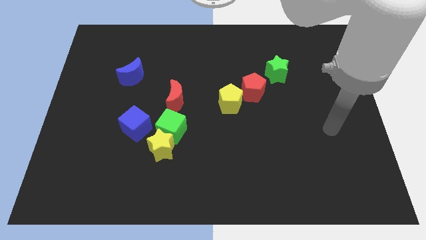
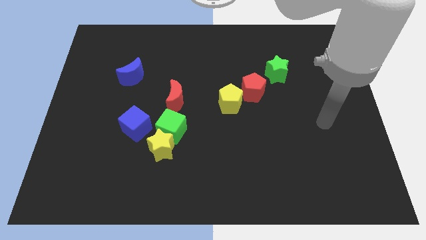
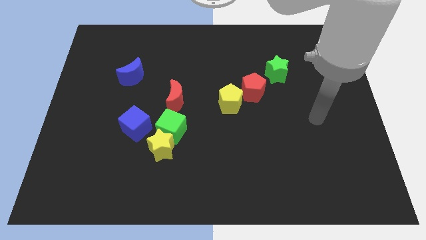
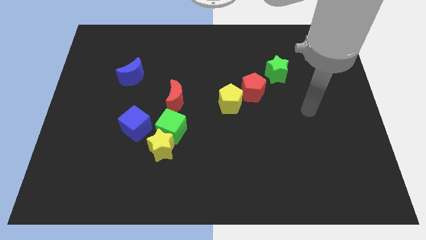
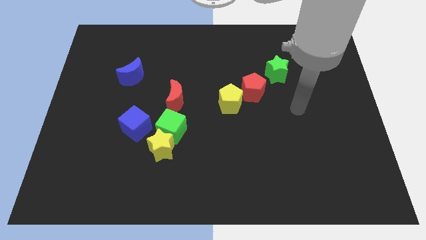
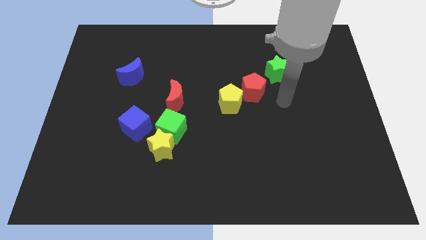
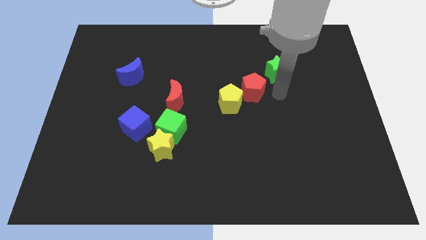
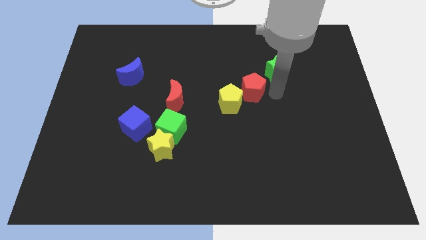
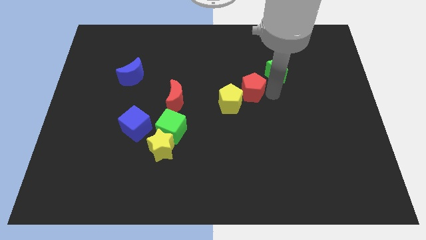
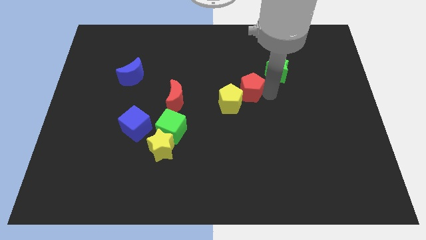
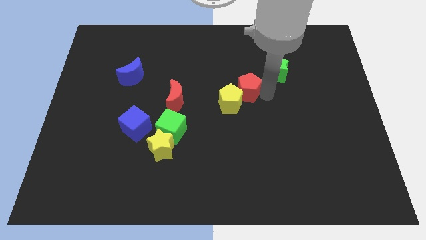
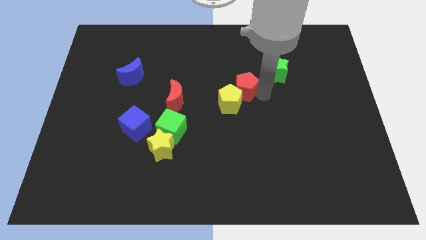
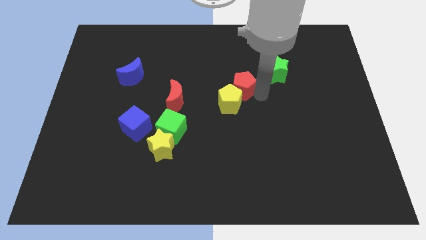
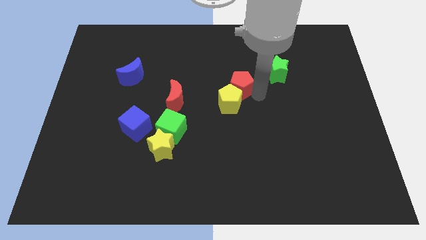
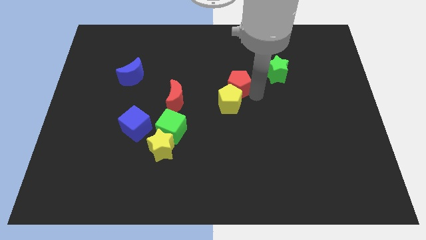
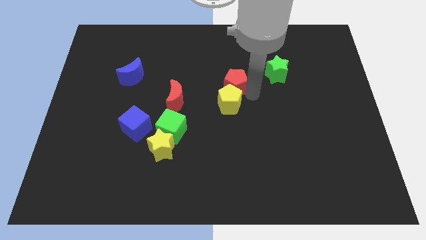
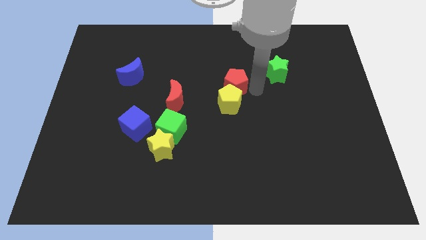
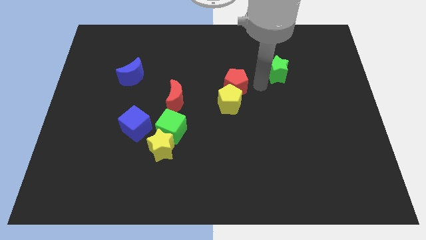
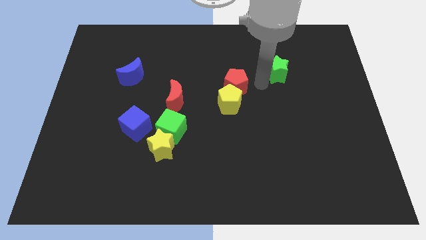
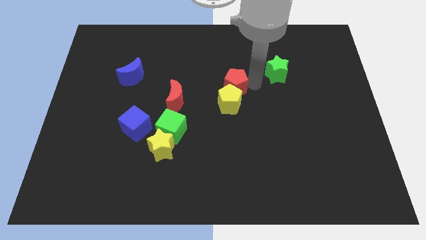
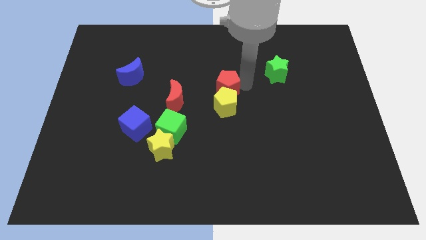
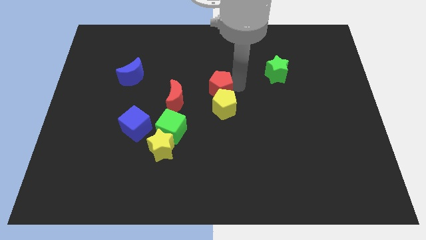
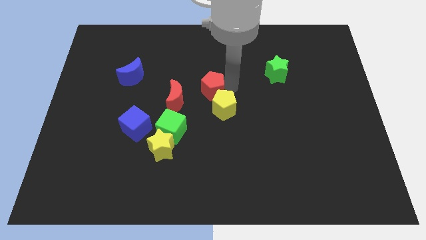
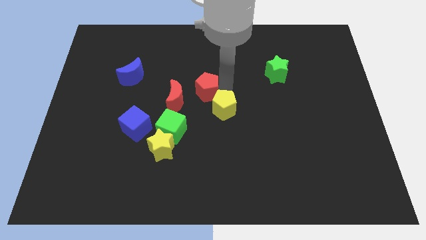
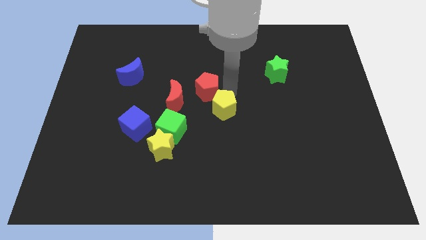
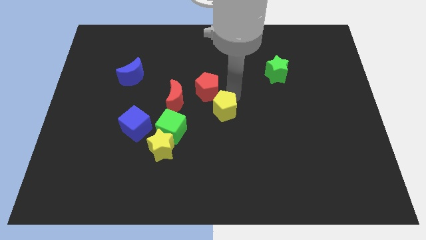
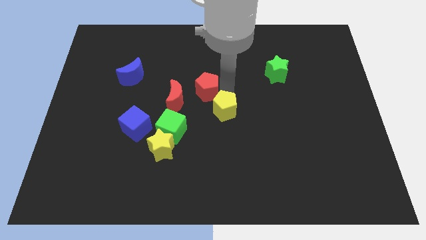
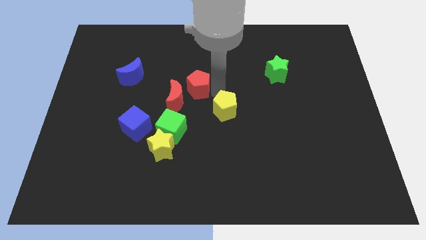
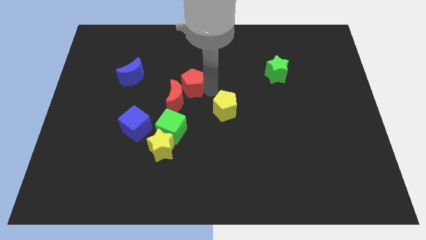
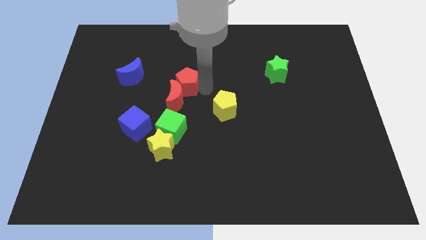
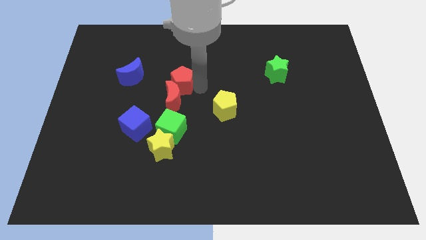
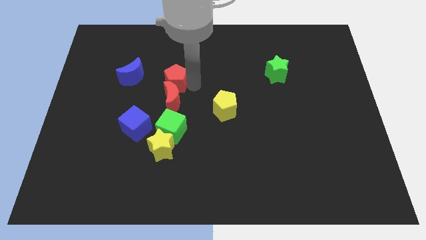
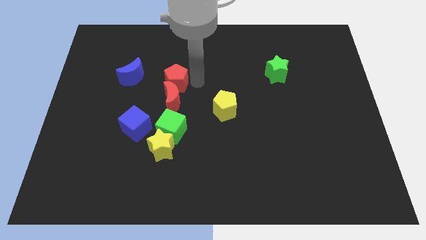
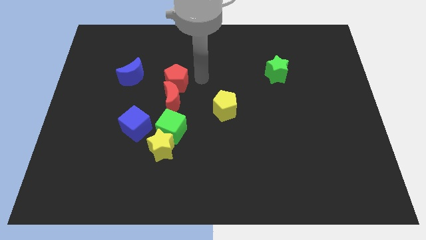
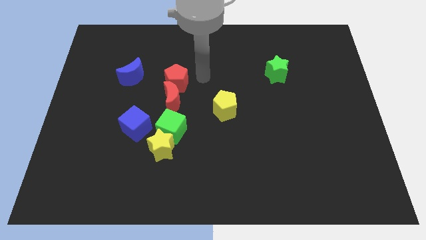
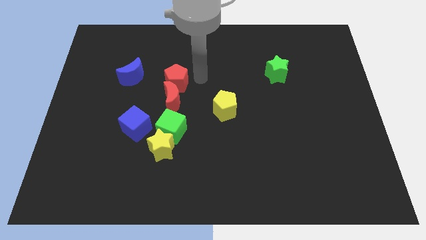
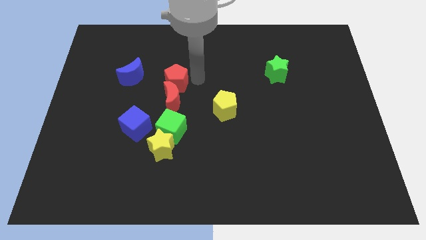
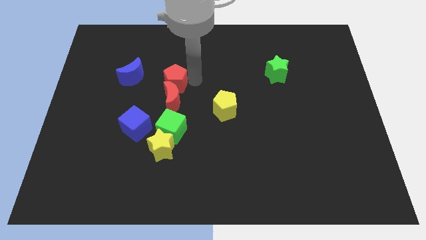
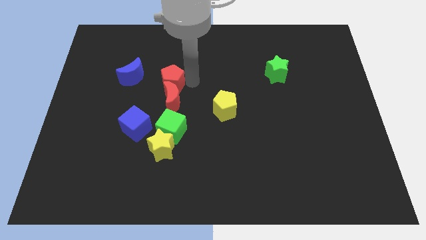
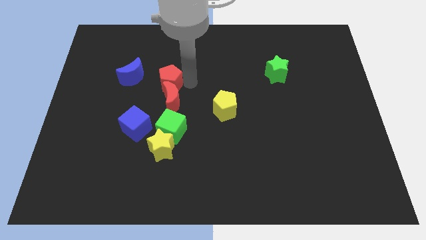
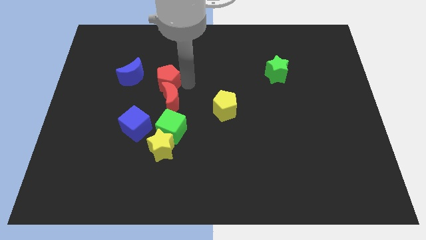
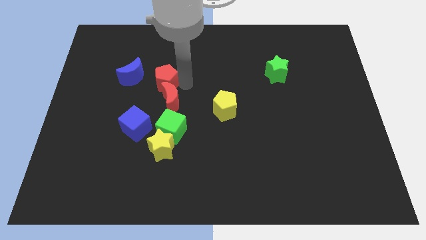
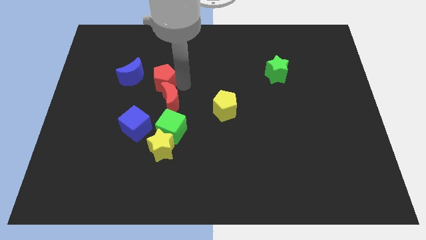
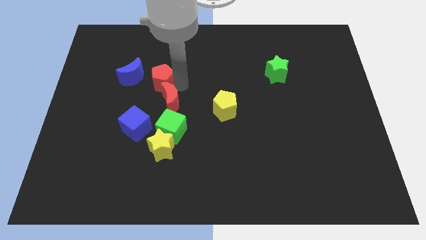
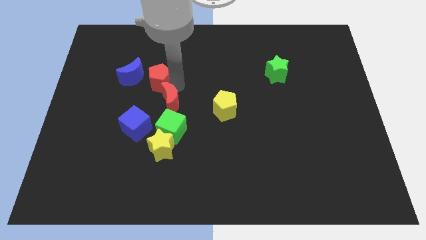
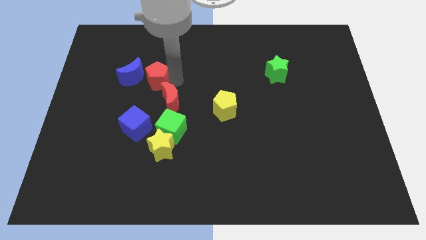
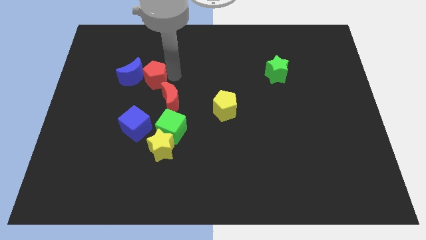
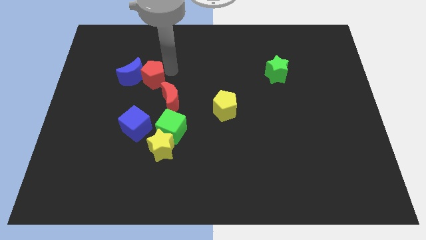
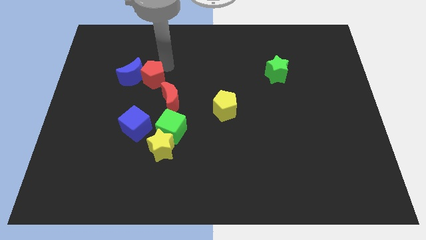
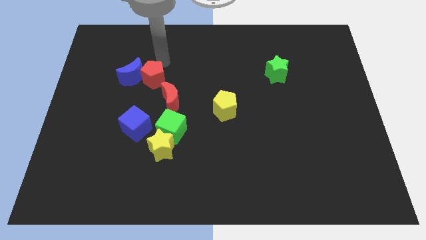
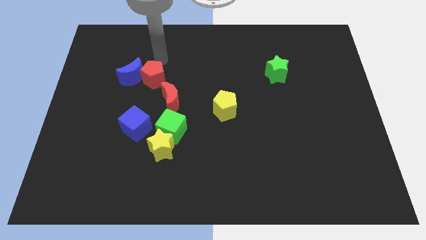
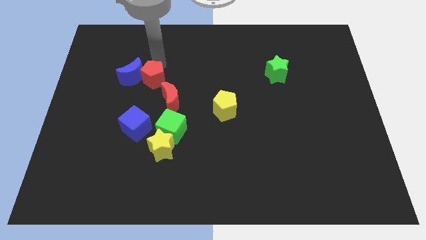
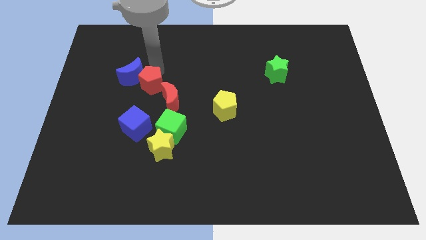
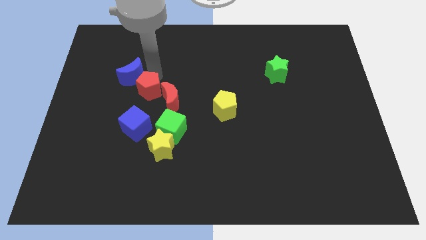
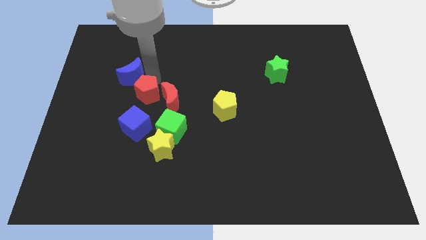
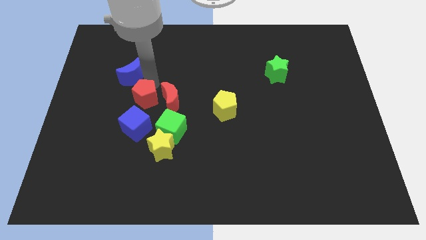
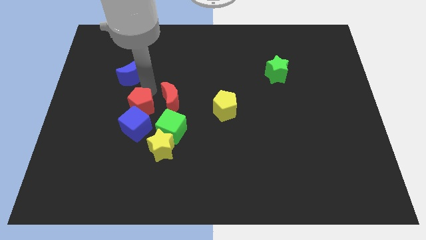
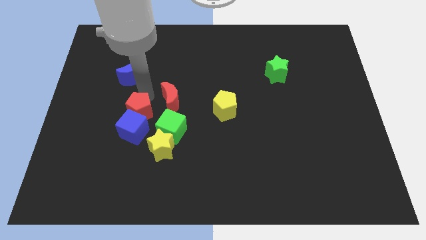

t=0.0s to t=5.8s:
slide the red pentagon close to the blue cube

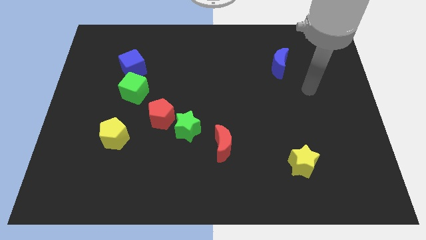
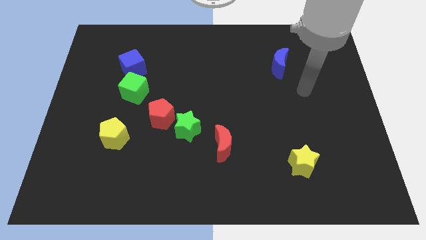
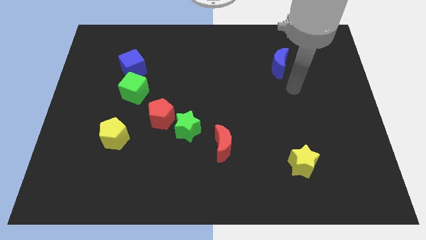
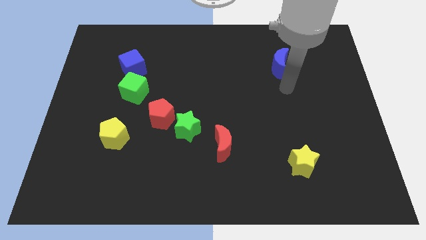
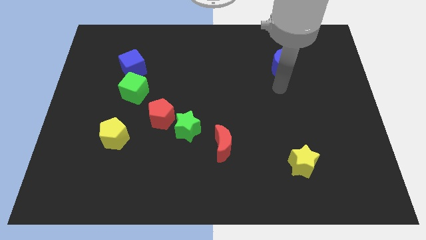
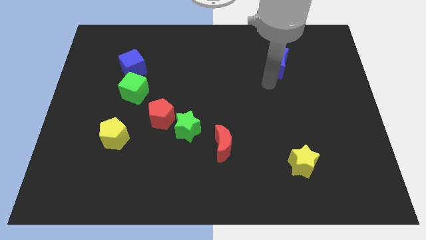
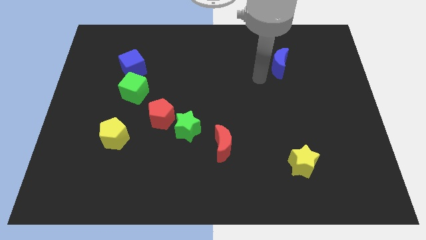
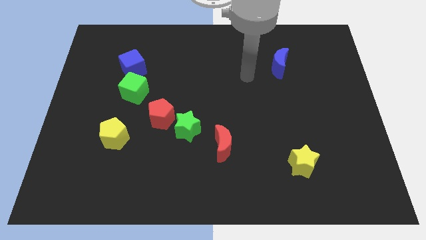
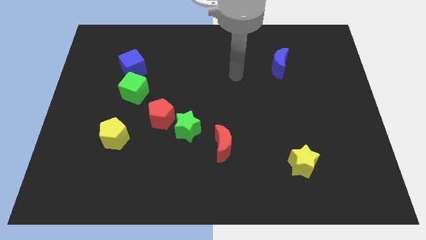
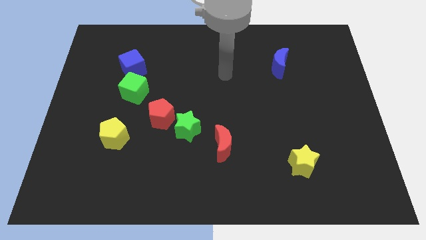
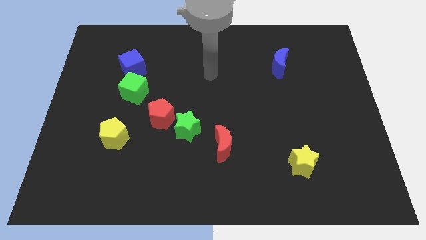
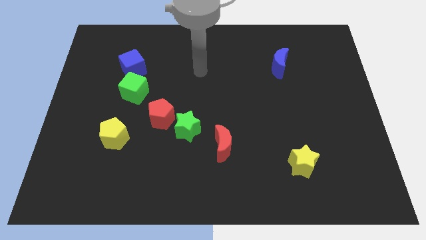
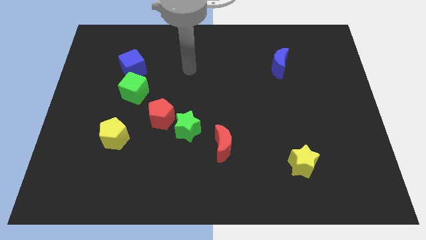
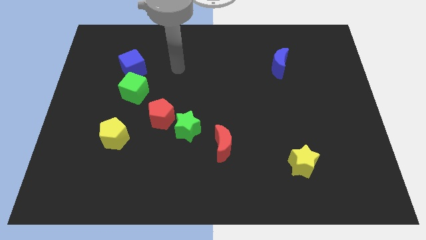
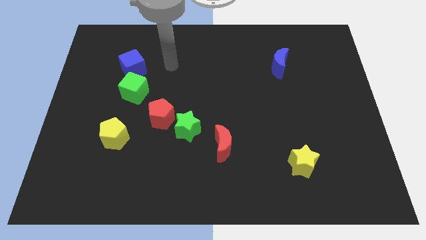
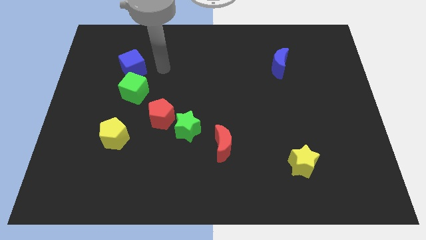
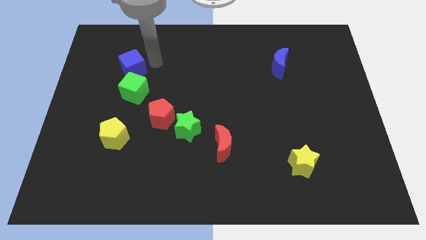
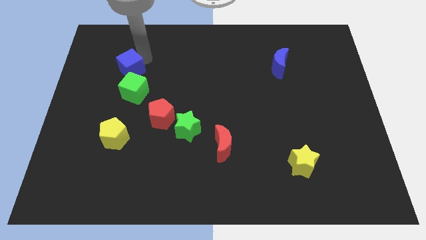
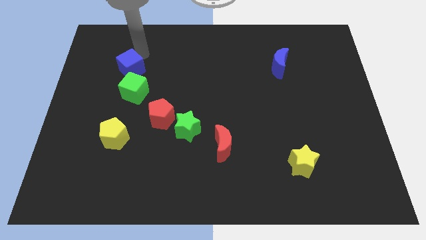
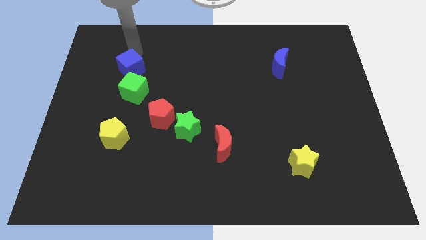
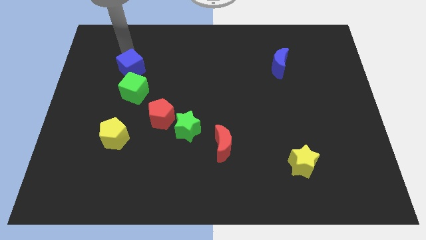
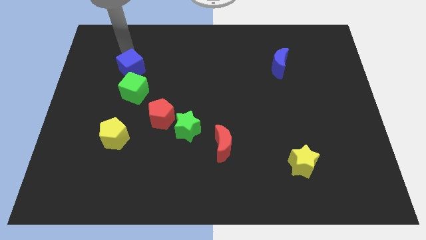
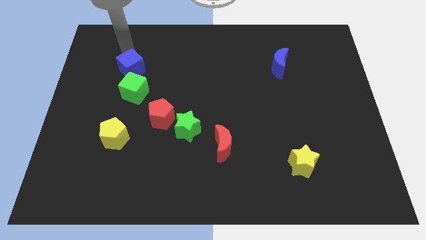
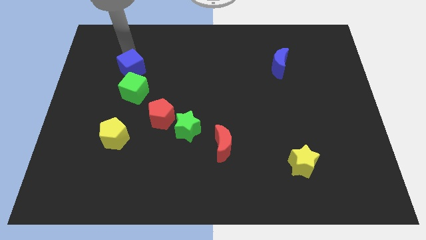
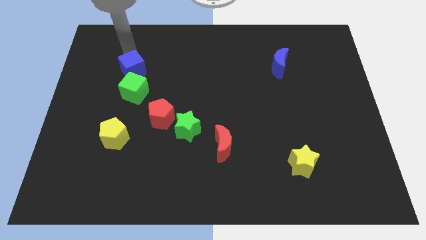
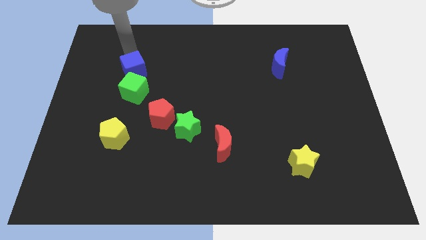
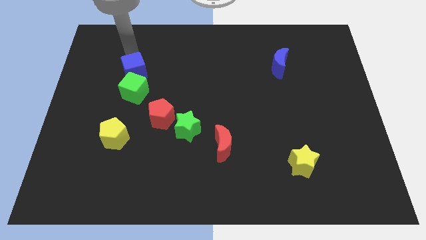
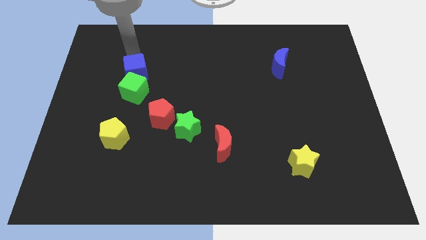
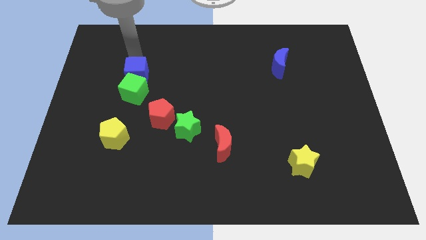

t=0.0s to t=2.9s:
push the blue cube close to the green cube
